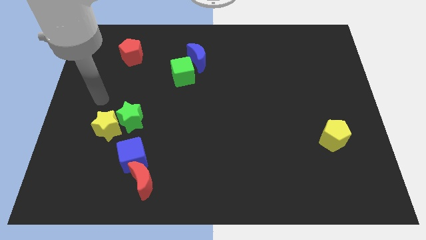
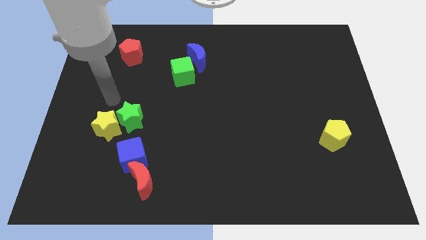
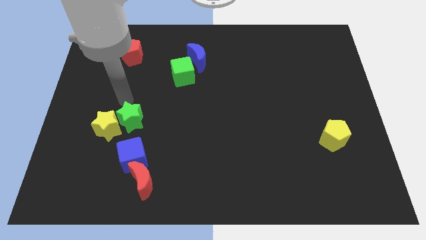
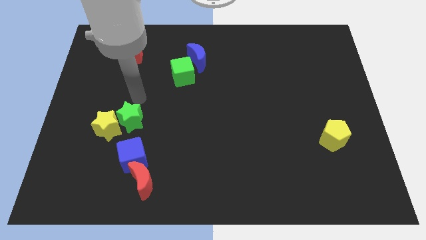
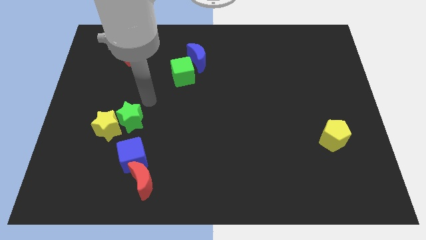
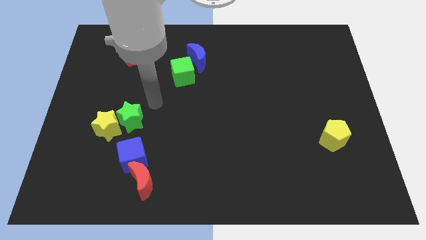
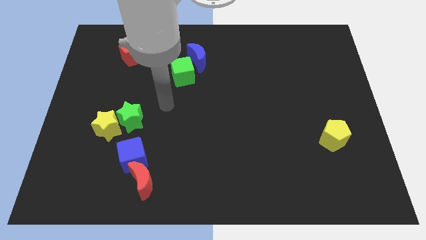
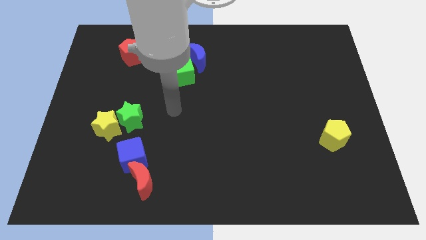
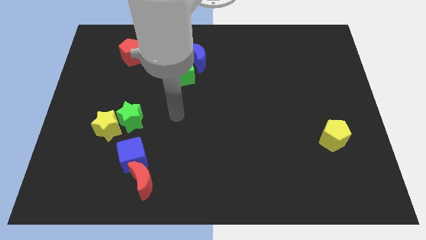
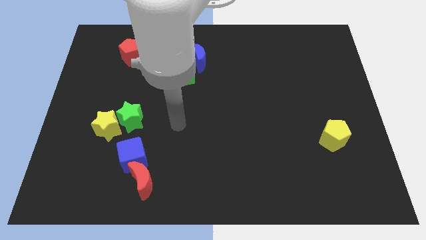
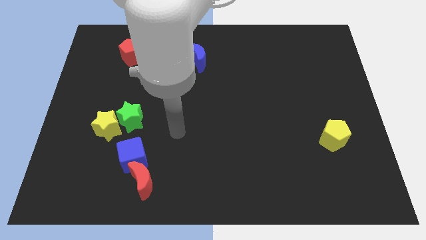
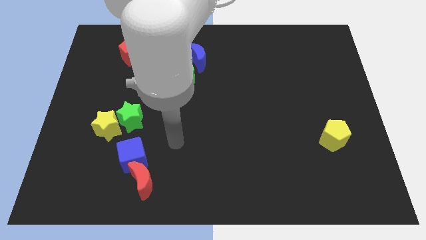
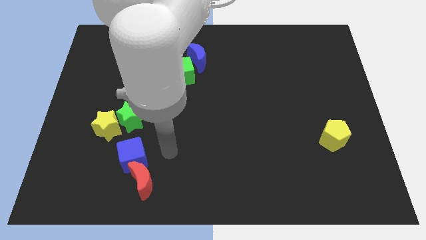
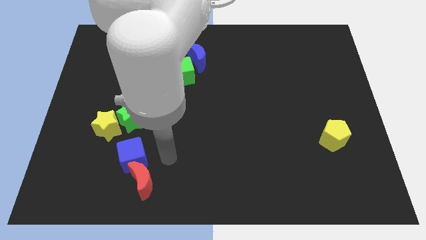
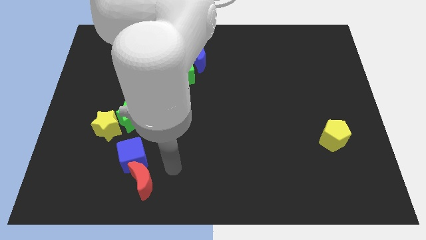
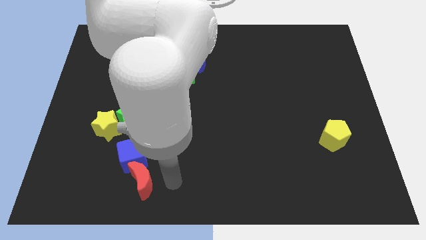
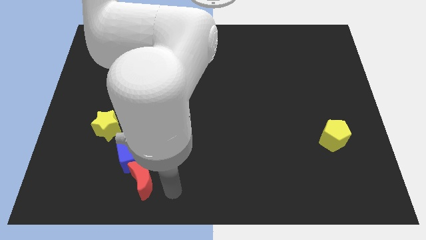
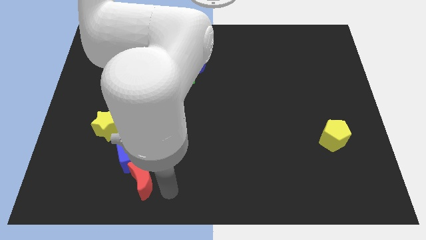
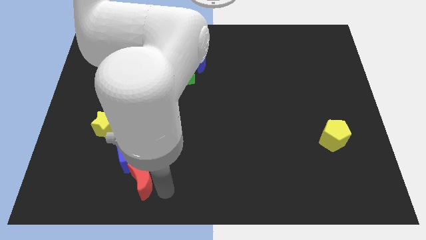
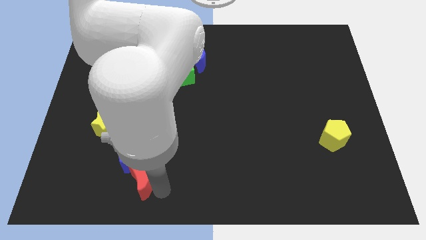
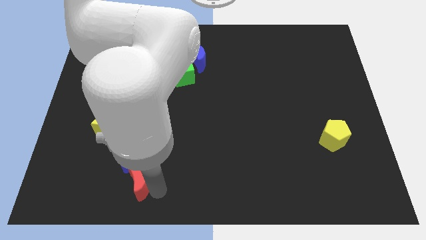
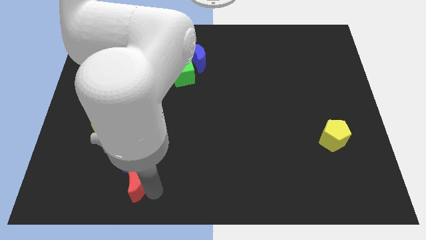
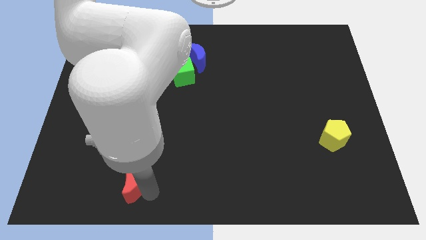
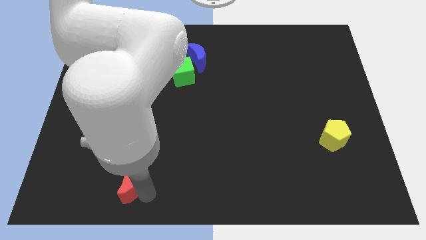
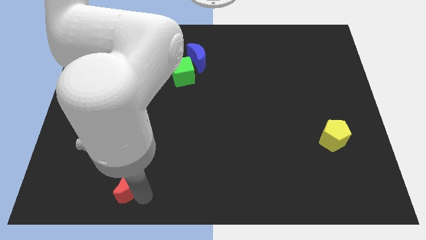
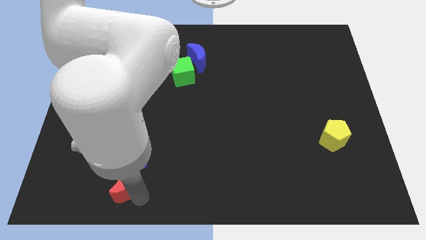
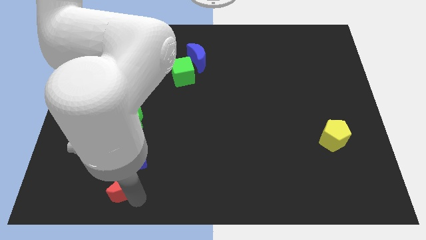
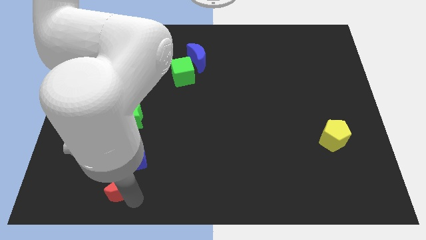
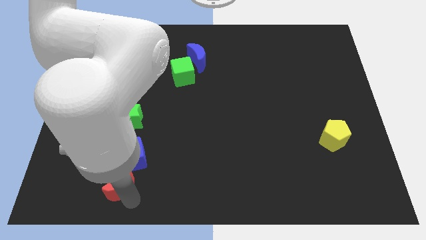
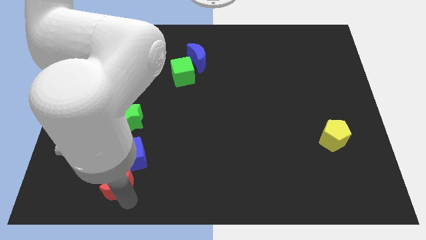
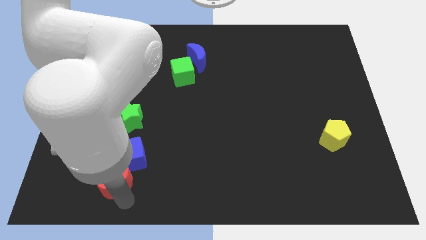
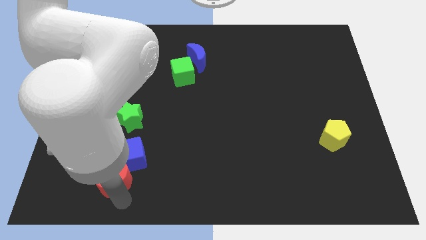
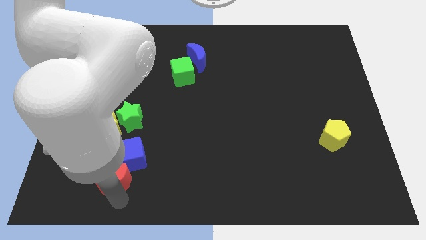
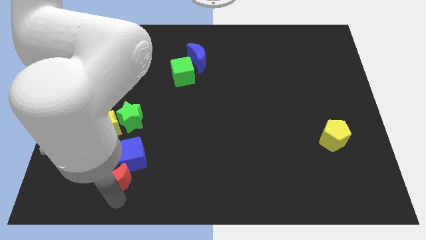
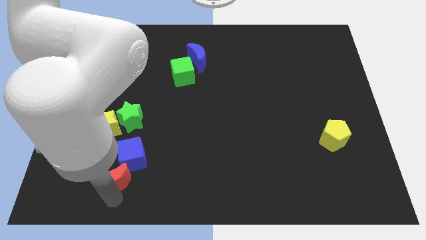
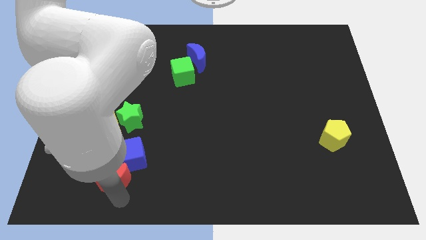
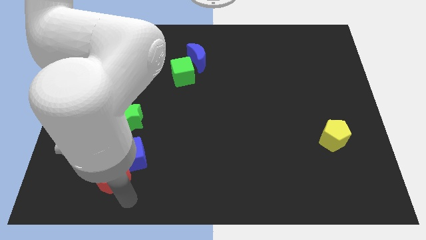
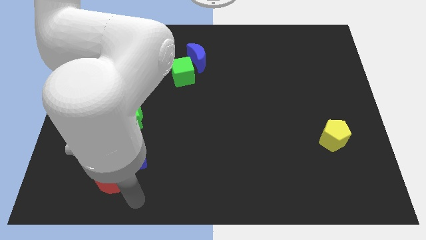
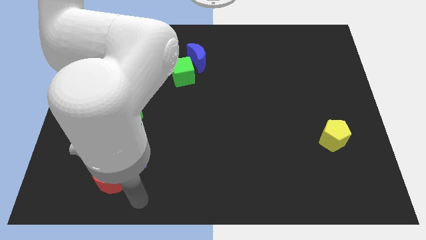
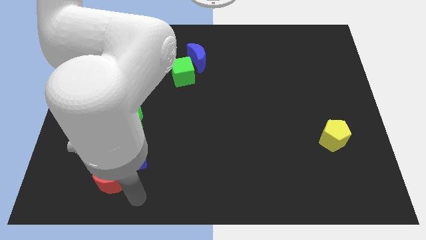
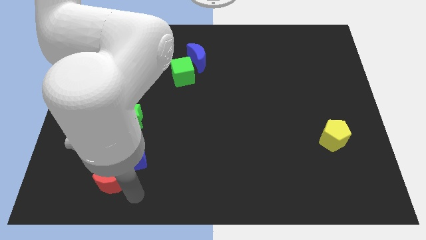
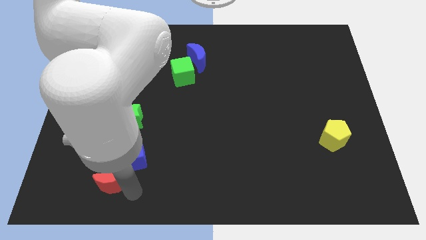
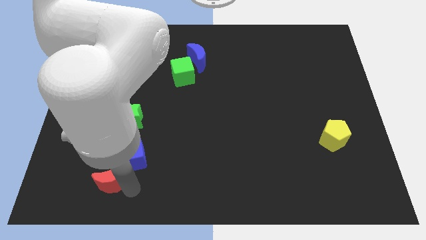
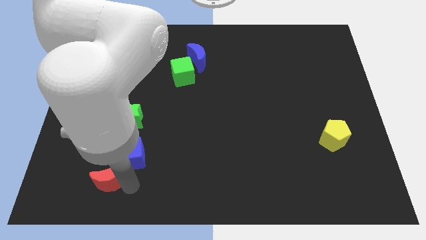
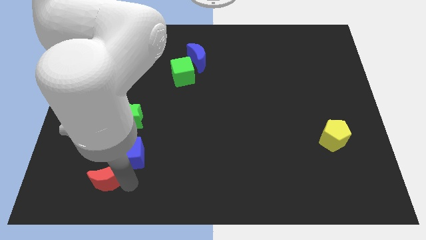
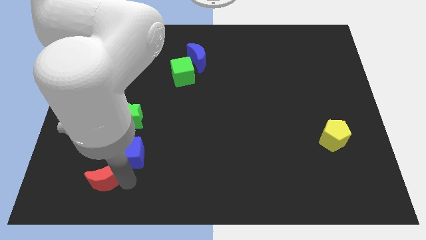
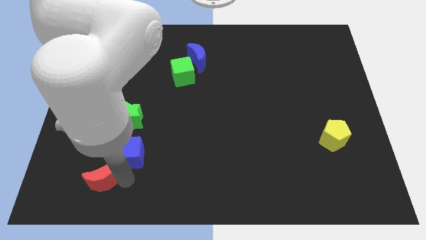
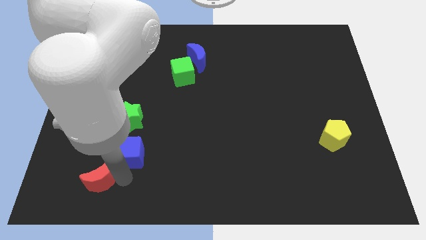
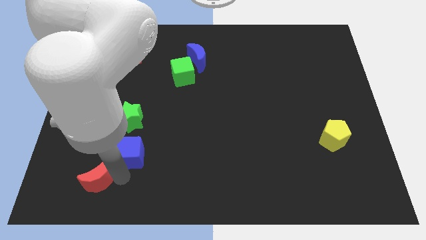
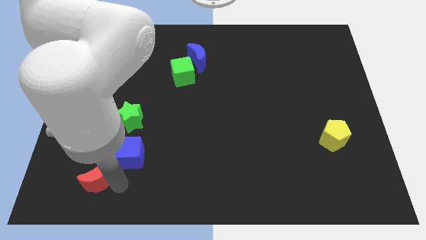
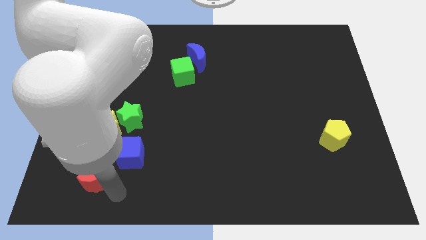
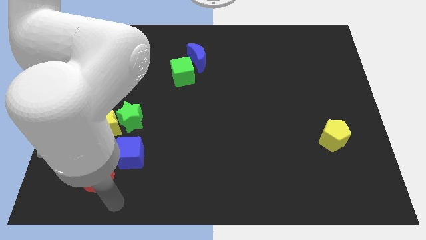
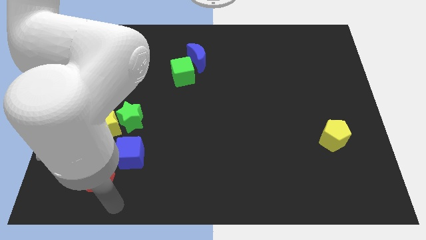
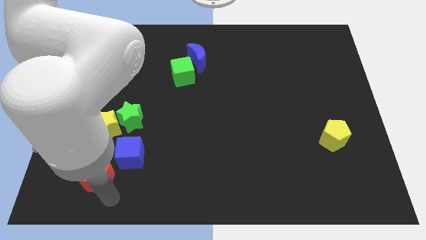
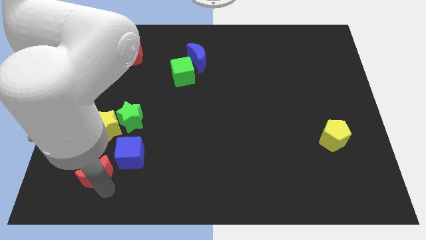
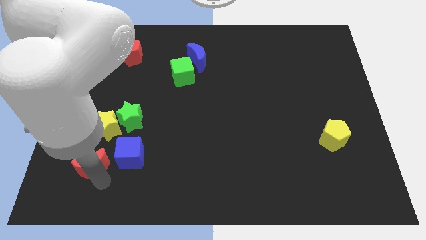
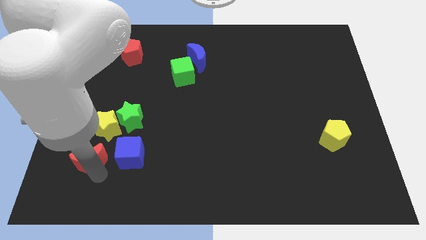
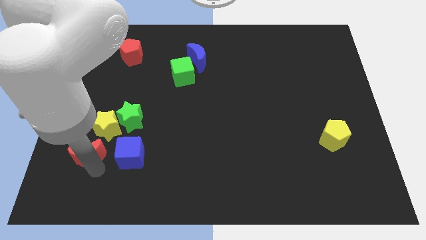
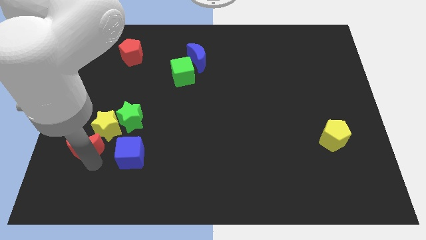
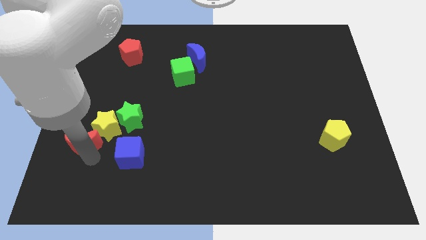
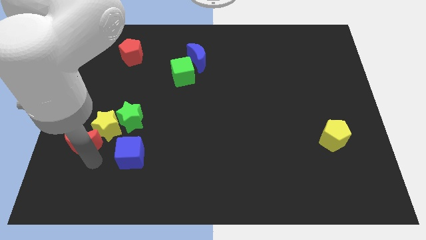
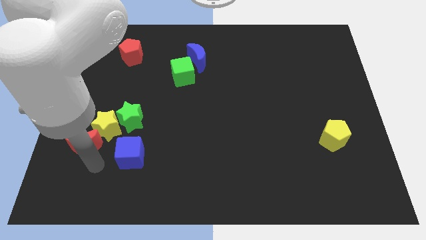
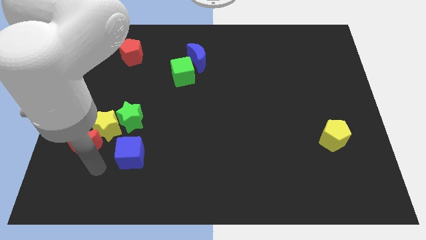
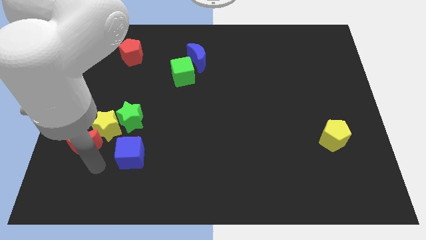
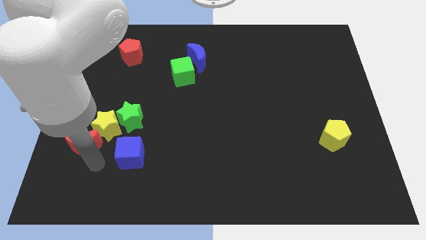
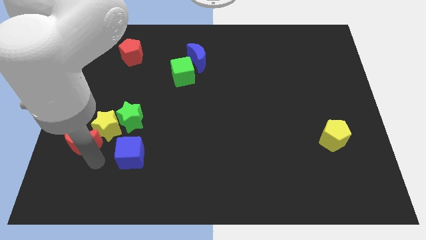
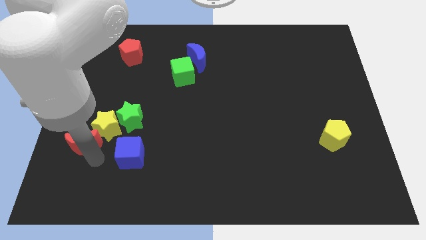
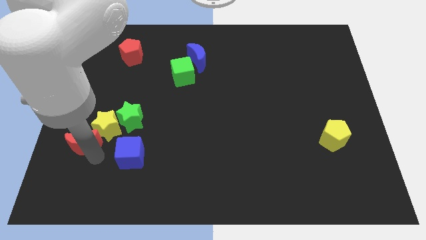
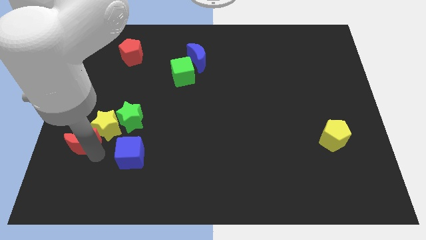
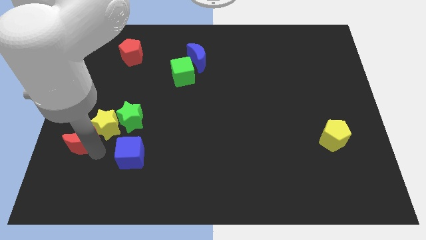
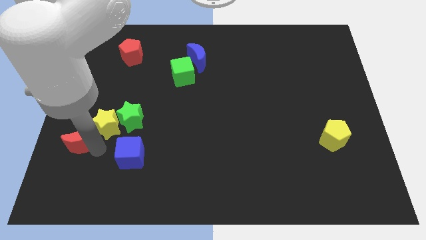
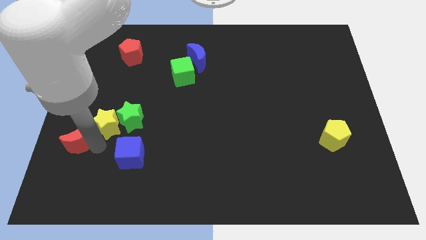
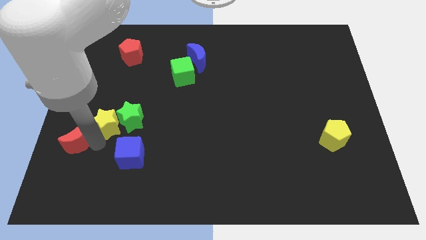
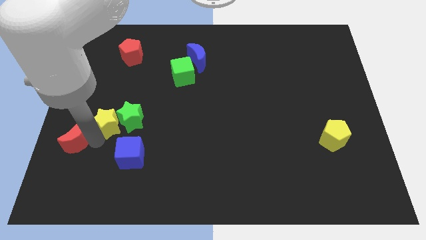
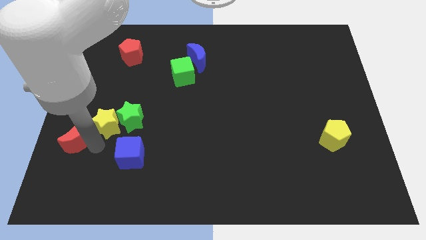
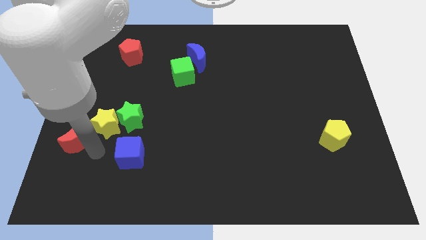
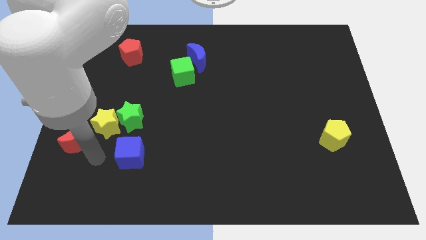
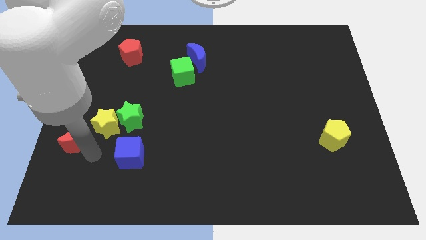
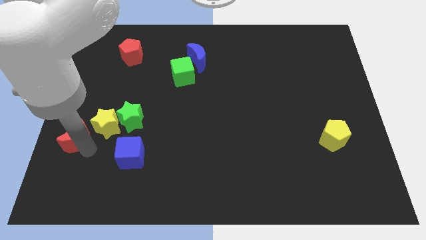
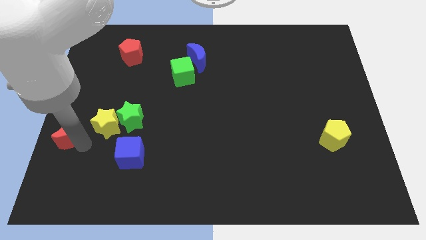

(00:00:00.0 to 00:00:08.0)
put the red moon to the left side
